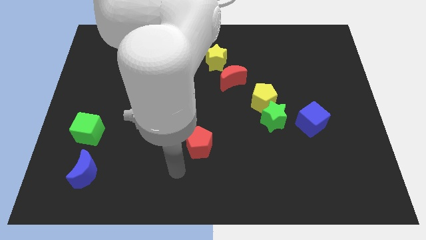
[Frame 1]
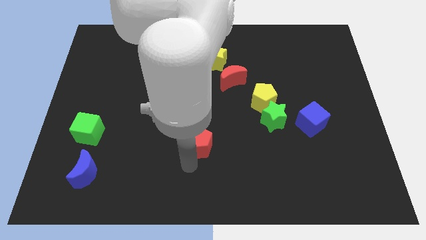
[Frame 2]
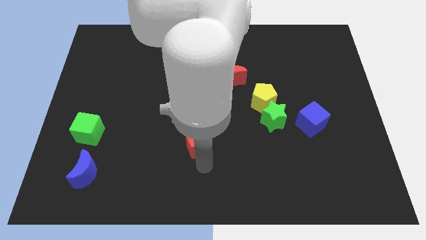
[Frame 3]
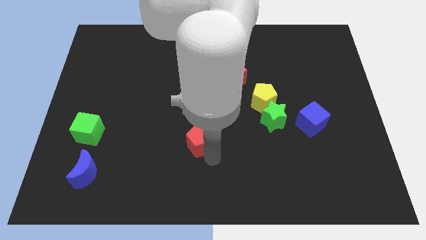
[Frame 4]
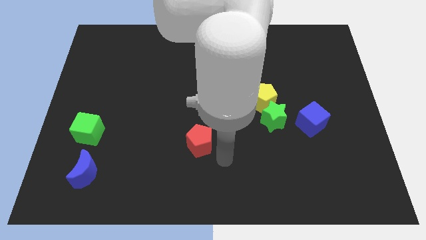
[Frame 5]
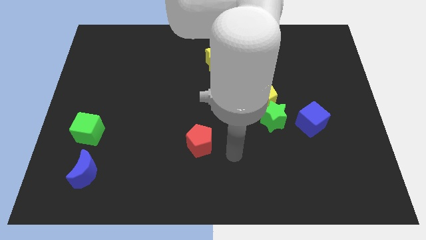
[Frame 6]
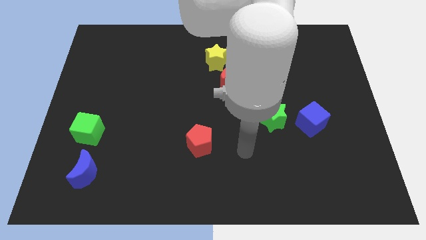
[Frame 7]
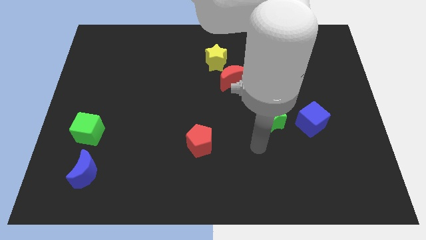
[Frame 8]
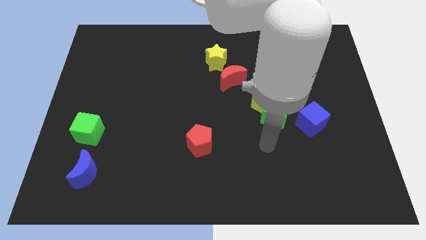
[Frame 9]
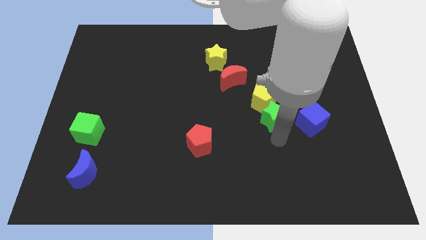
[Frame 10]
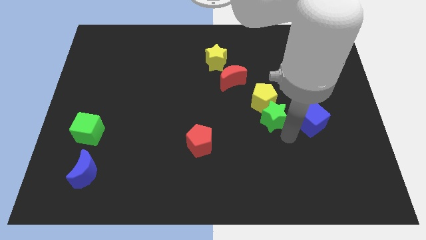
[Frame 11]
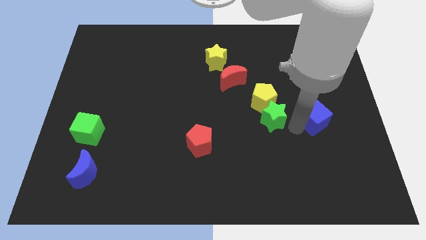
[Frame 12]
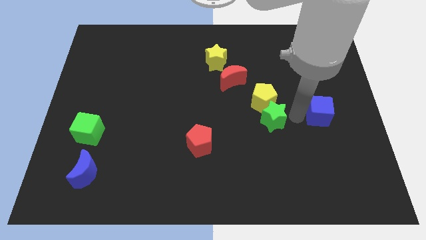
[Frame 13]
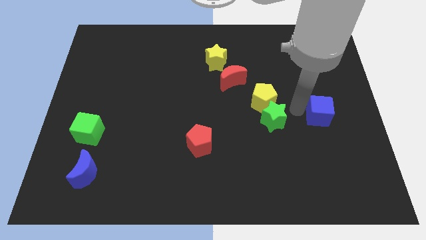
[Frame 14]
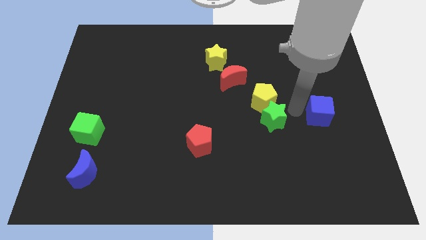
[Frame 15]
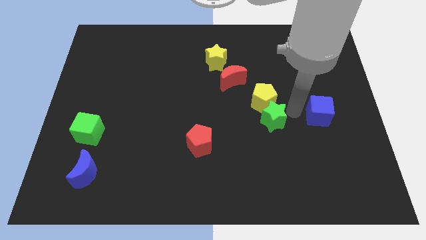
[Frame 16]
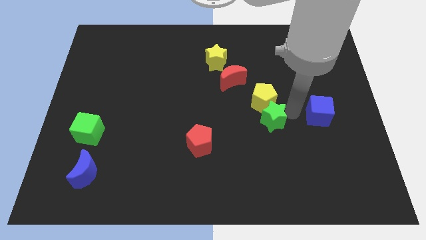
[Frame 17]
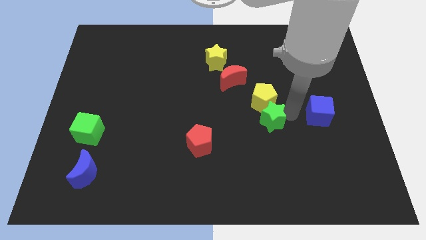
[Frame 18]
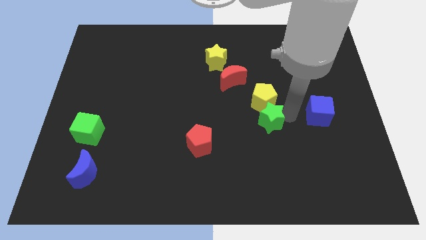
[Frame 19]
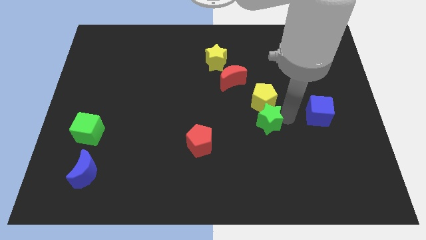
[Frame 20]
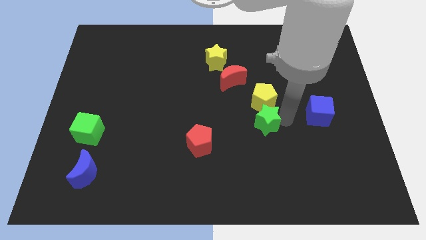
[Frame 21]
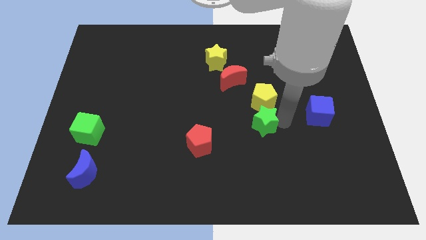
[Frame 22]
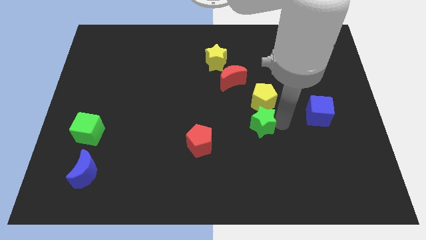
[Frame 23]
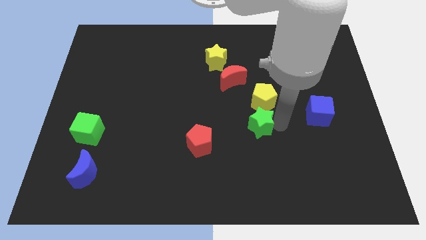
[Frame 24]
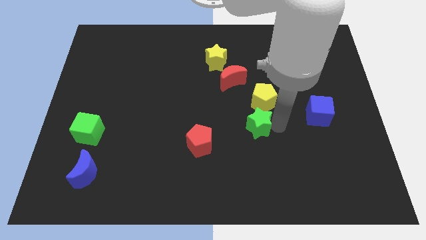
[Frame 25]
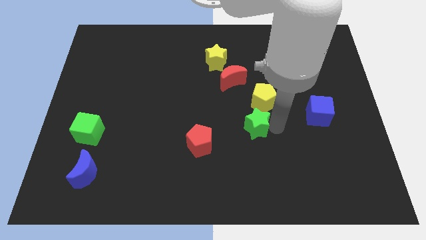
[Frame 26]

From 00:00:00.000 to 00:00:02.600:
pull the green star apart from the yellow pentagon and blue cube

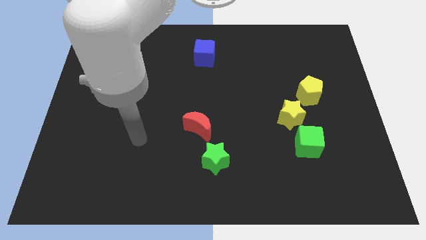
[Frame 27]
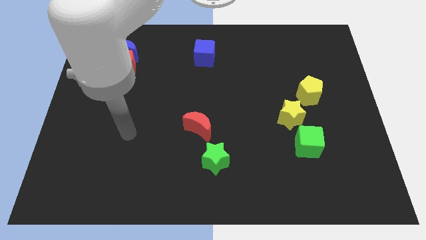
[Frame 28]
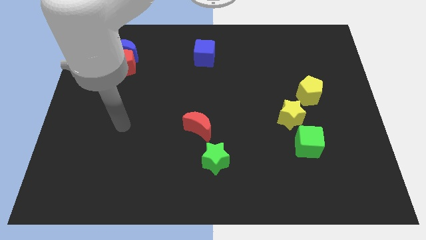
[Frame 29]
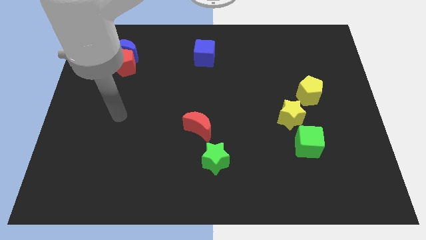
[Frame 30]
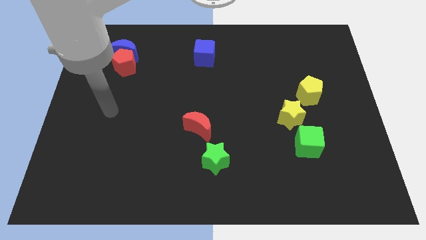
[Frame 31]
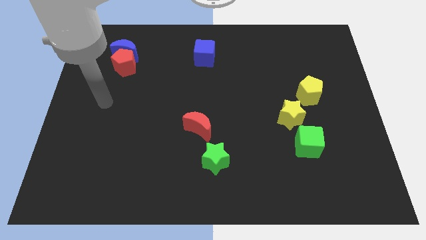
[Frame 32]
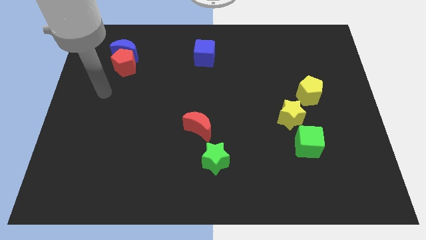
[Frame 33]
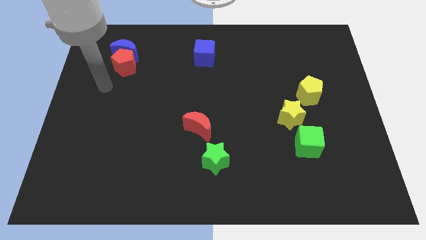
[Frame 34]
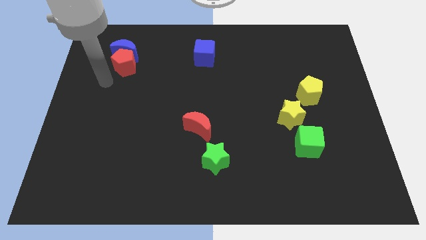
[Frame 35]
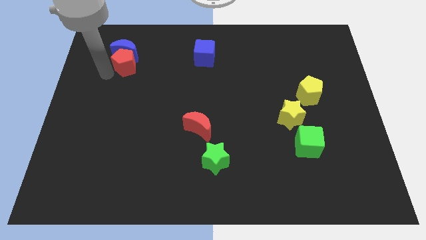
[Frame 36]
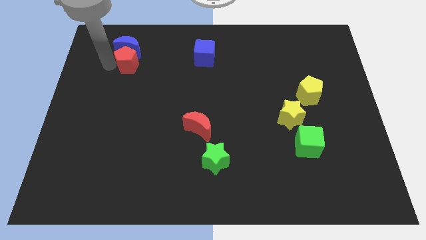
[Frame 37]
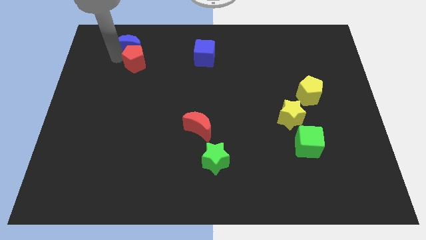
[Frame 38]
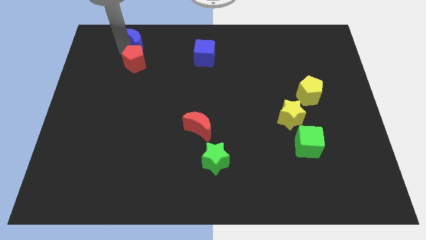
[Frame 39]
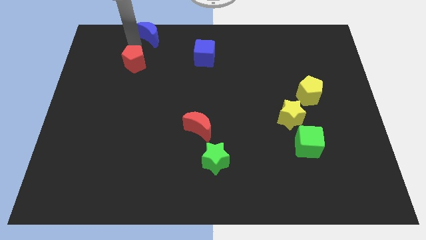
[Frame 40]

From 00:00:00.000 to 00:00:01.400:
move the red pentagon away from the blue moon

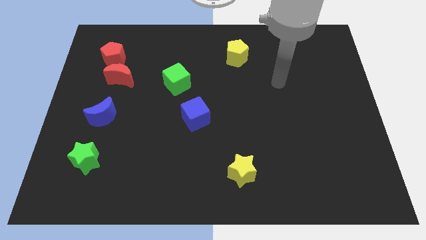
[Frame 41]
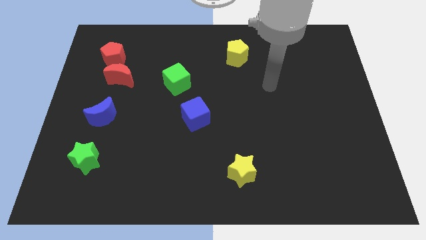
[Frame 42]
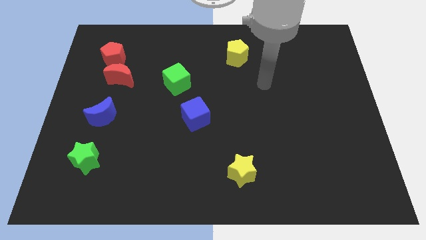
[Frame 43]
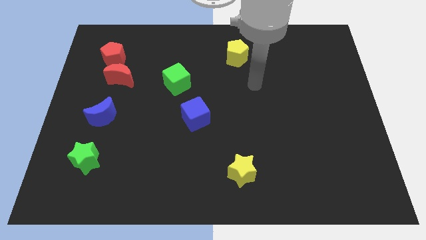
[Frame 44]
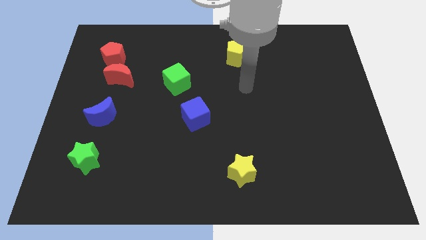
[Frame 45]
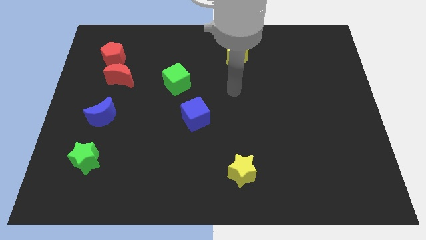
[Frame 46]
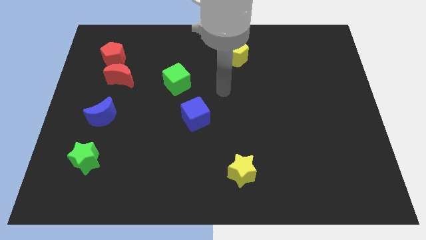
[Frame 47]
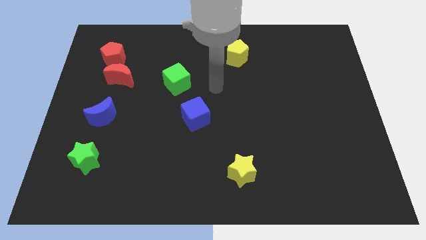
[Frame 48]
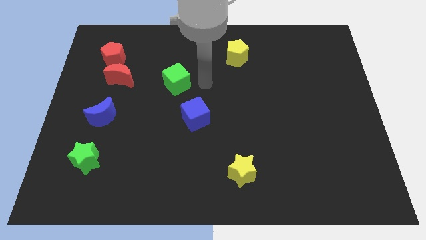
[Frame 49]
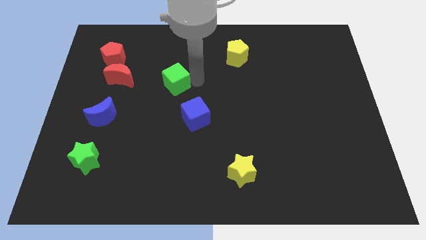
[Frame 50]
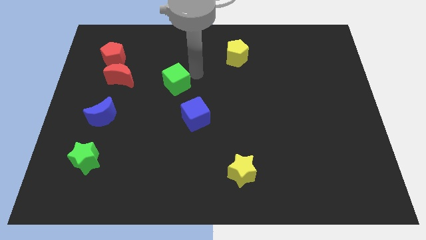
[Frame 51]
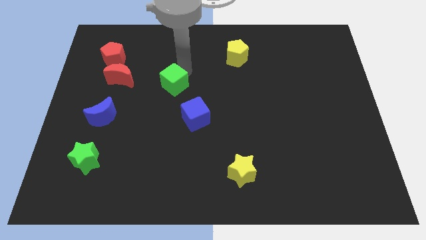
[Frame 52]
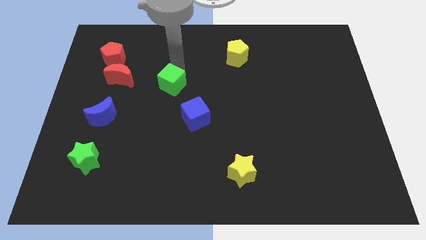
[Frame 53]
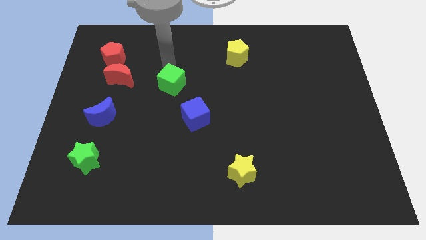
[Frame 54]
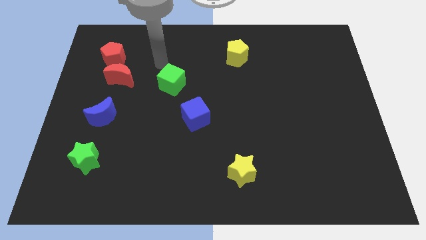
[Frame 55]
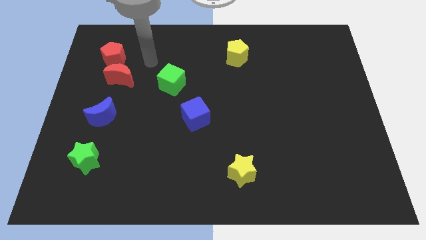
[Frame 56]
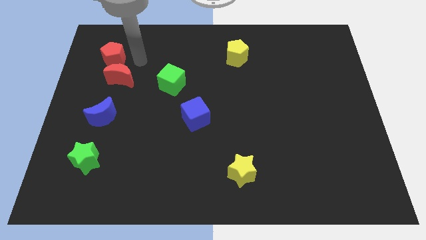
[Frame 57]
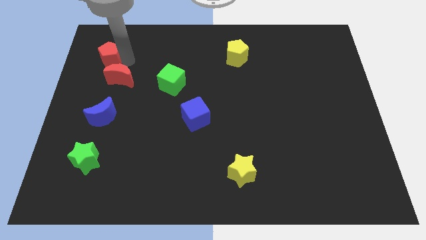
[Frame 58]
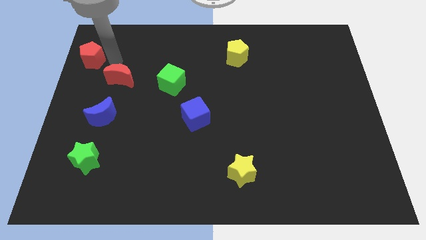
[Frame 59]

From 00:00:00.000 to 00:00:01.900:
move the red moon away from the red pentagon

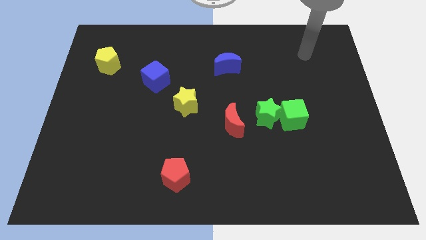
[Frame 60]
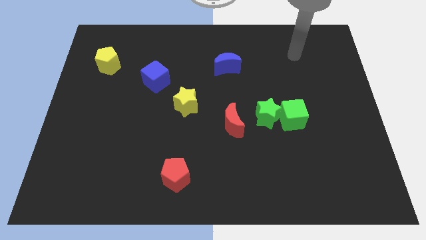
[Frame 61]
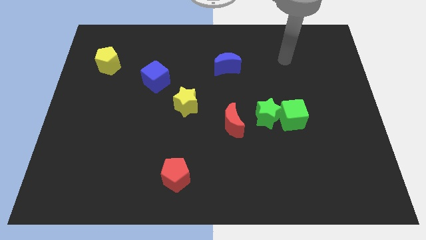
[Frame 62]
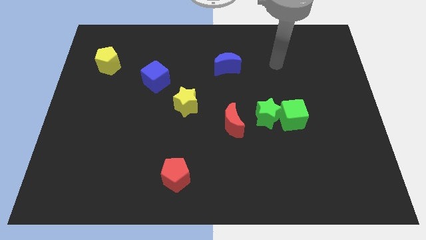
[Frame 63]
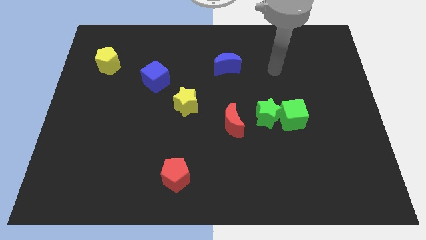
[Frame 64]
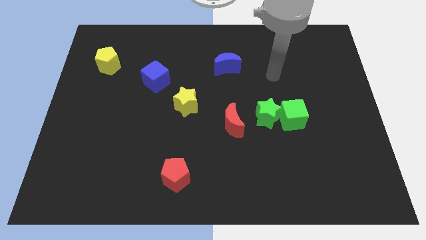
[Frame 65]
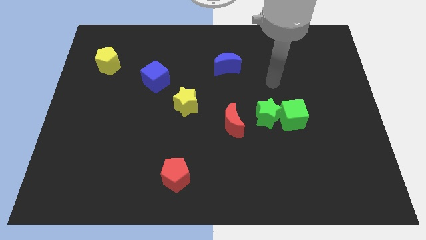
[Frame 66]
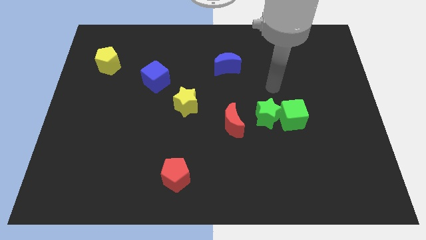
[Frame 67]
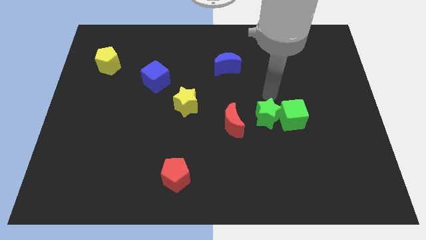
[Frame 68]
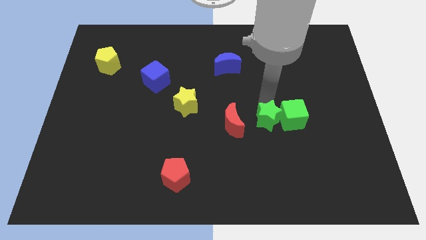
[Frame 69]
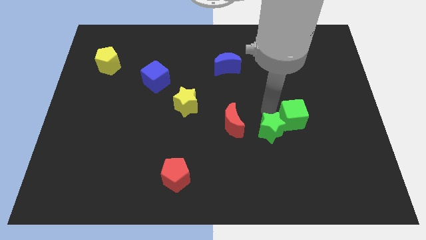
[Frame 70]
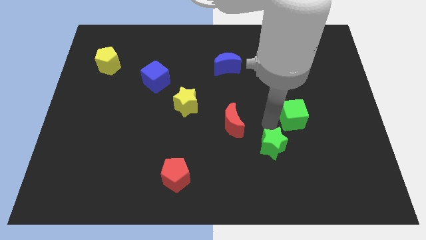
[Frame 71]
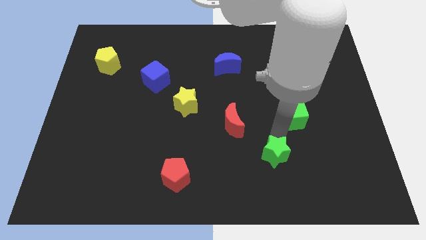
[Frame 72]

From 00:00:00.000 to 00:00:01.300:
pull the green cube apart from the green star

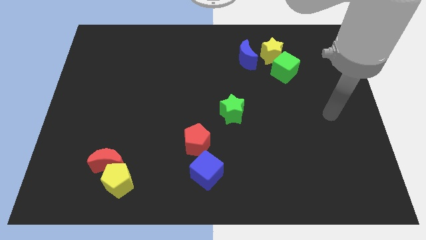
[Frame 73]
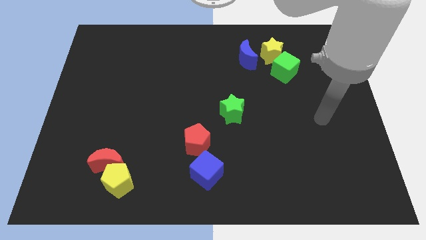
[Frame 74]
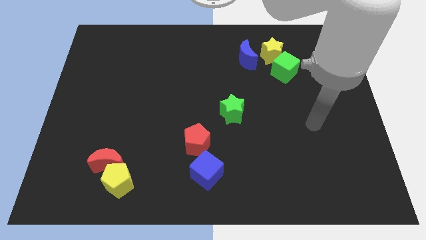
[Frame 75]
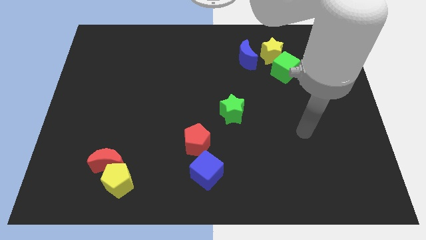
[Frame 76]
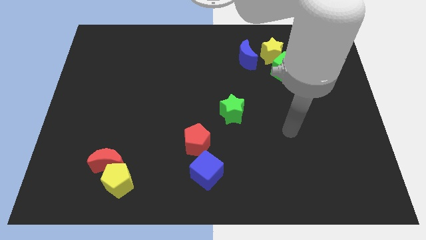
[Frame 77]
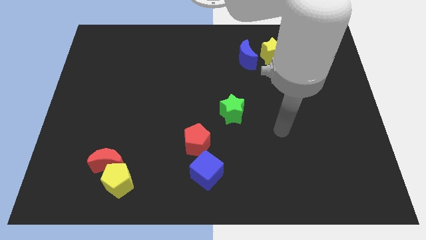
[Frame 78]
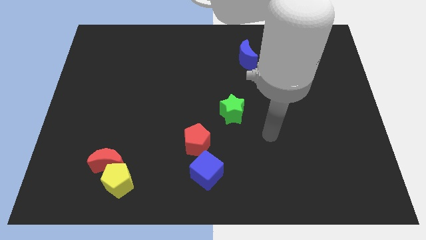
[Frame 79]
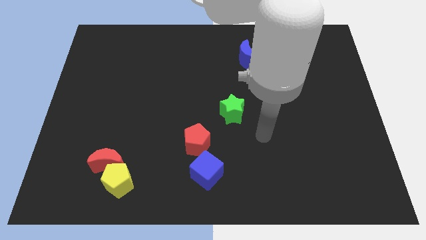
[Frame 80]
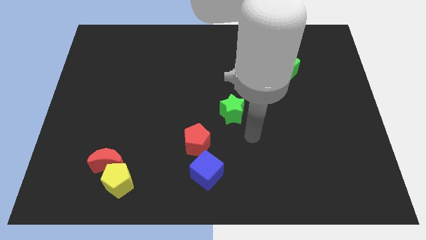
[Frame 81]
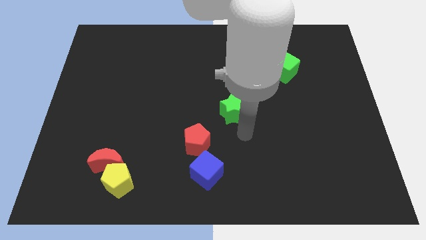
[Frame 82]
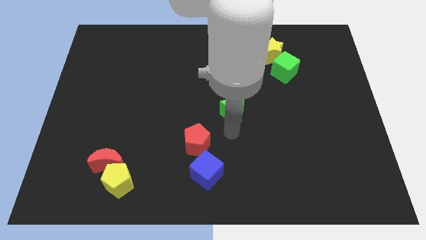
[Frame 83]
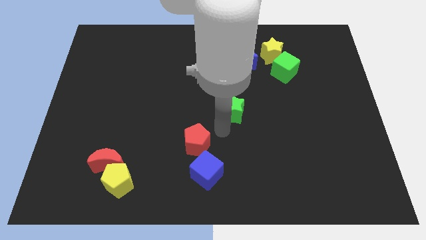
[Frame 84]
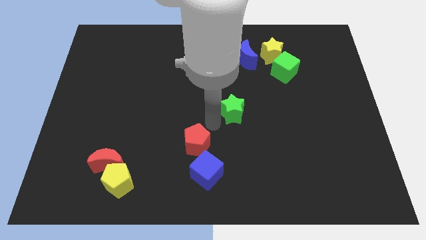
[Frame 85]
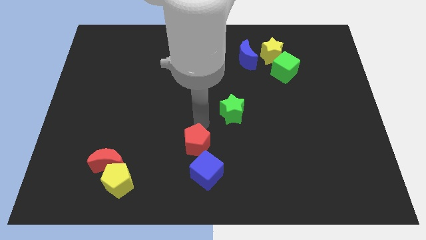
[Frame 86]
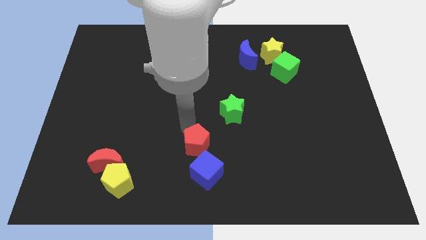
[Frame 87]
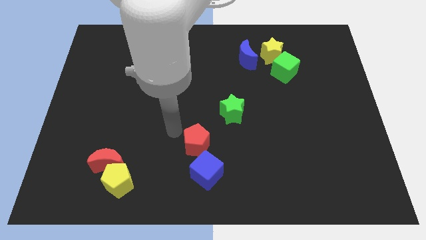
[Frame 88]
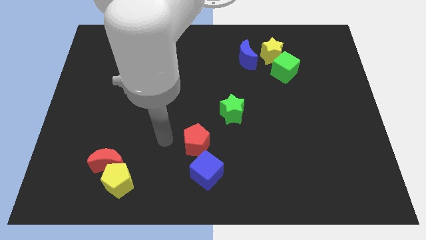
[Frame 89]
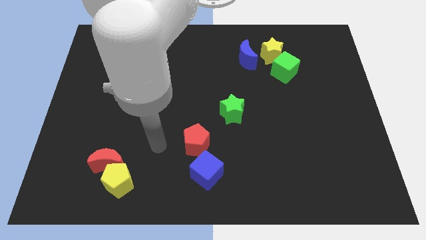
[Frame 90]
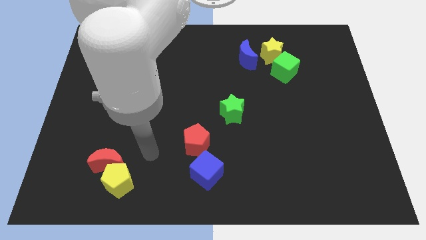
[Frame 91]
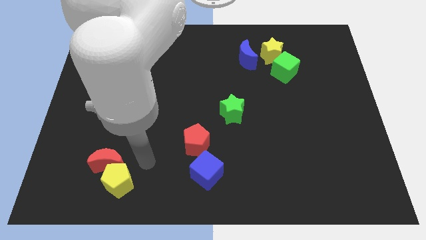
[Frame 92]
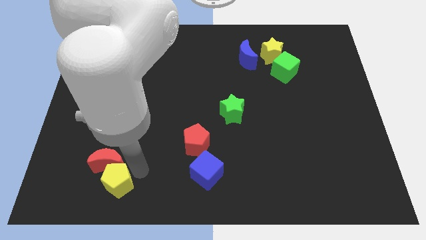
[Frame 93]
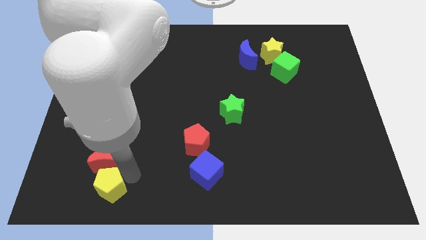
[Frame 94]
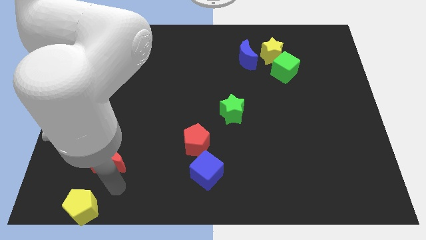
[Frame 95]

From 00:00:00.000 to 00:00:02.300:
move the red moon away from the yellow pentagon
